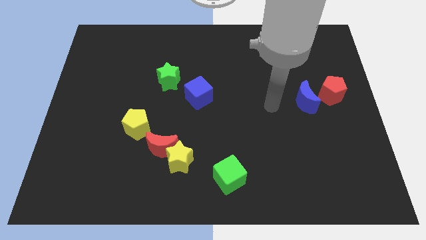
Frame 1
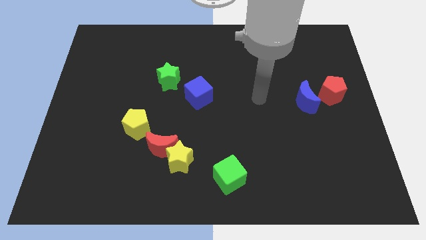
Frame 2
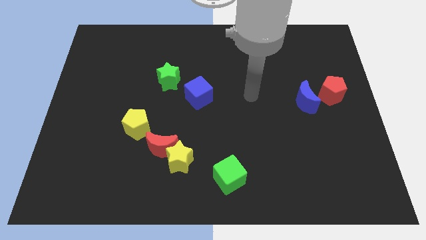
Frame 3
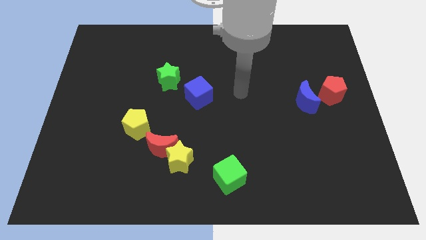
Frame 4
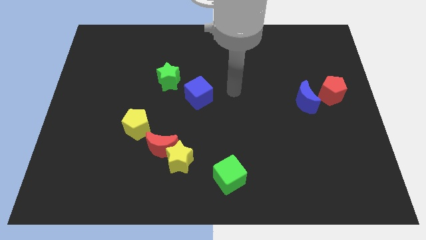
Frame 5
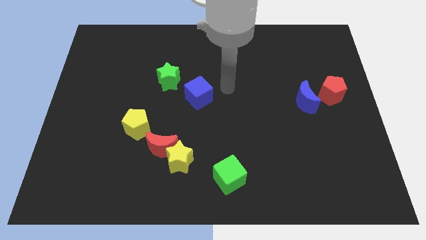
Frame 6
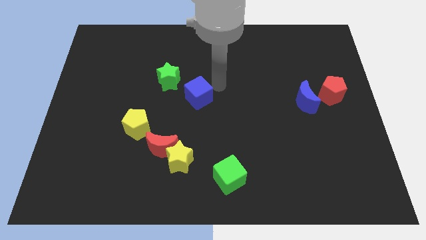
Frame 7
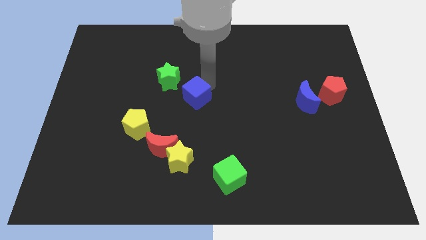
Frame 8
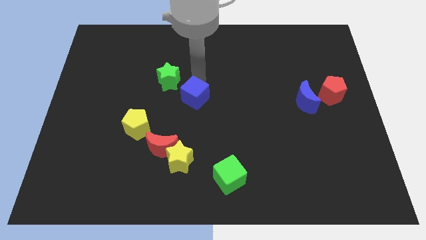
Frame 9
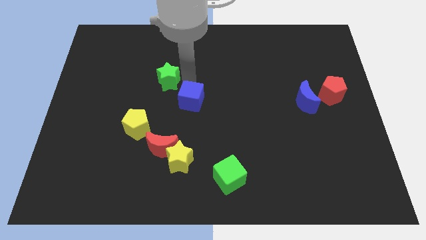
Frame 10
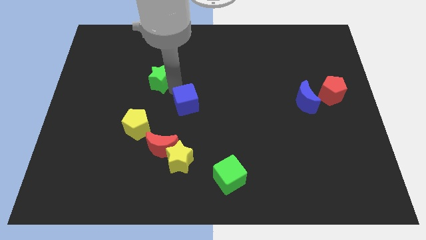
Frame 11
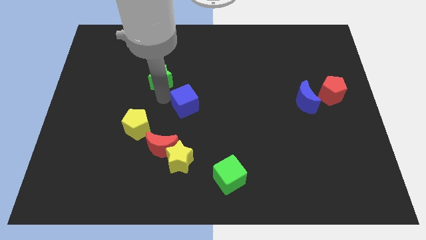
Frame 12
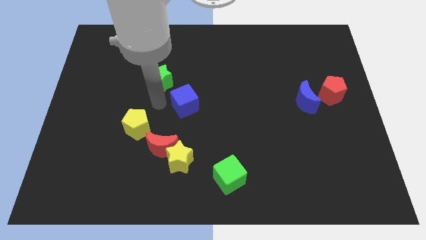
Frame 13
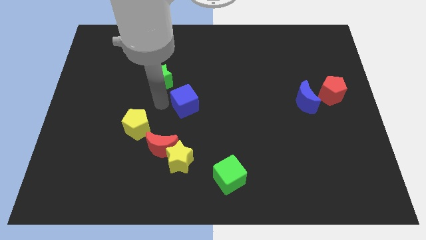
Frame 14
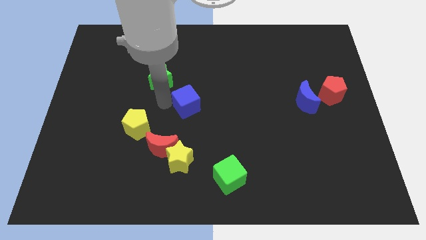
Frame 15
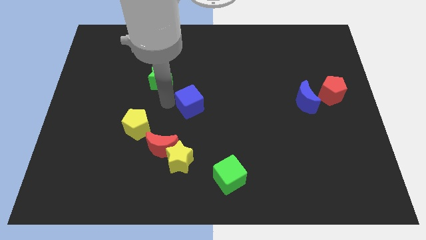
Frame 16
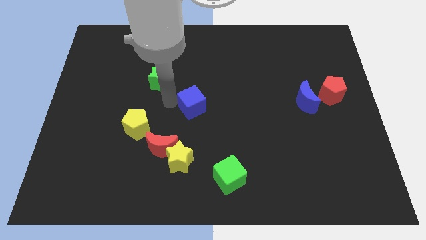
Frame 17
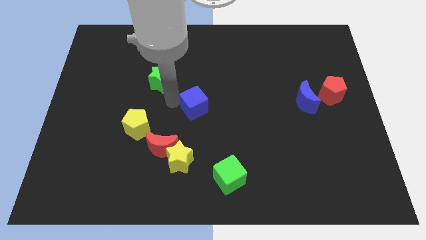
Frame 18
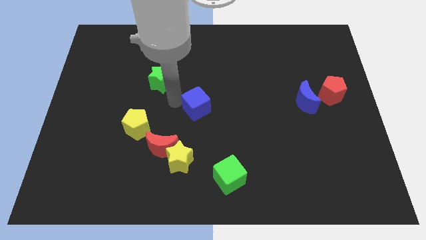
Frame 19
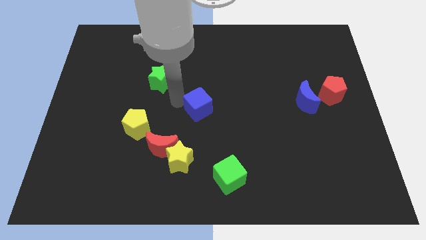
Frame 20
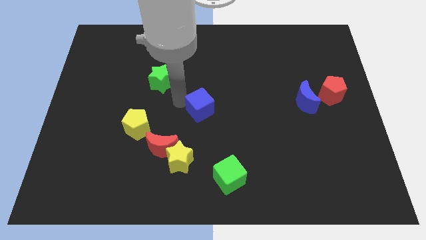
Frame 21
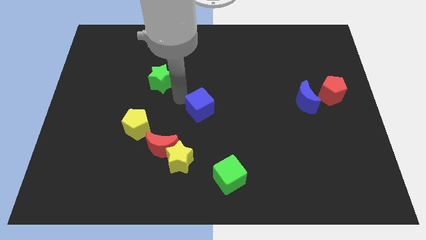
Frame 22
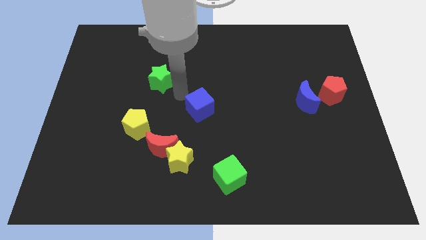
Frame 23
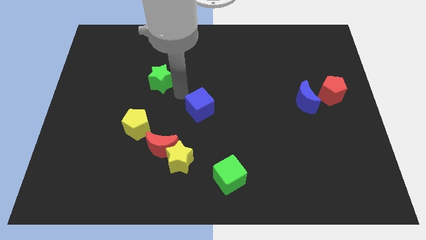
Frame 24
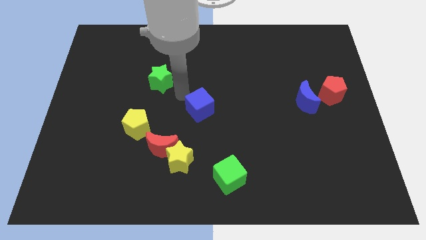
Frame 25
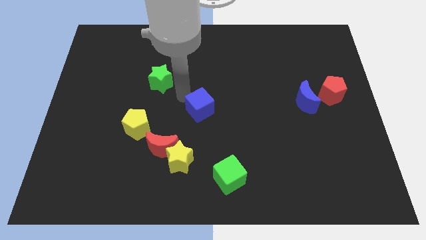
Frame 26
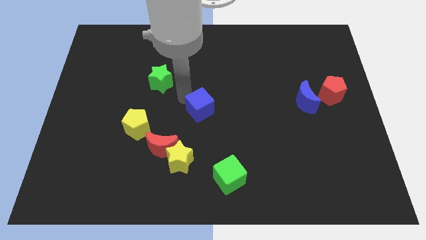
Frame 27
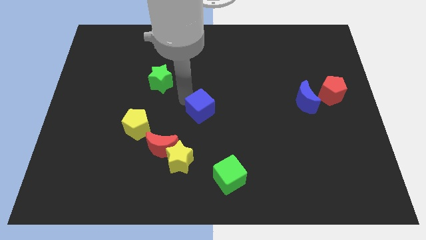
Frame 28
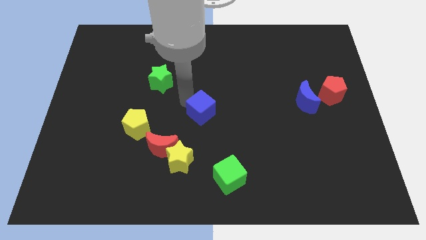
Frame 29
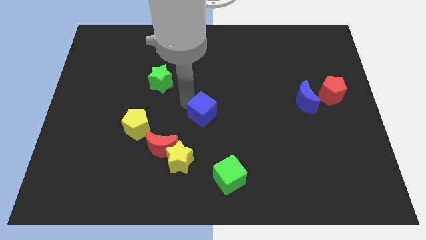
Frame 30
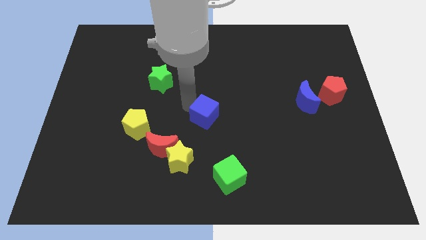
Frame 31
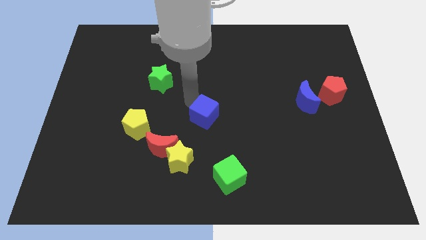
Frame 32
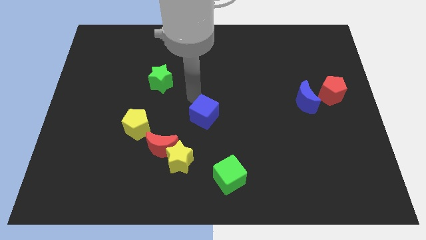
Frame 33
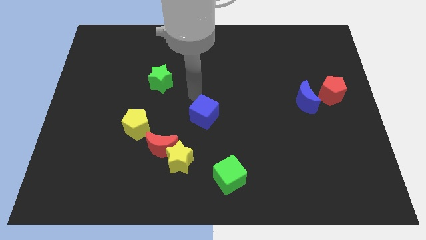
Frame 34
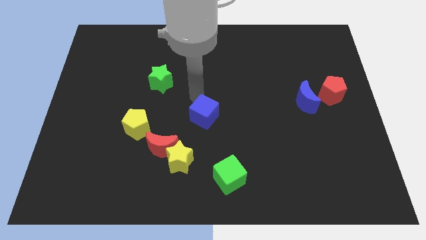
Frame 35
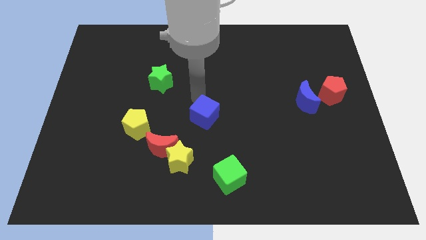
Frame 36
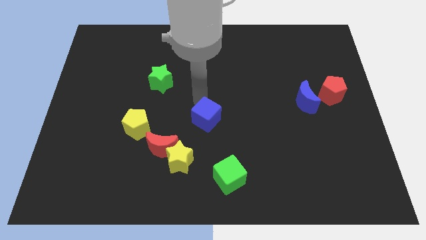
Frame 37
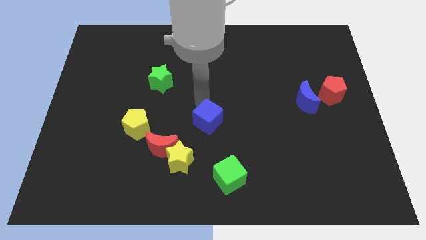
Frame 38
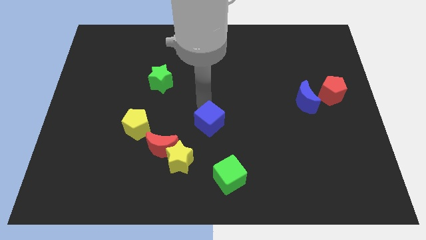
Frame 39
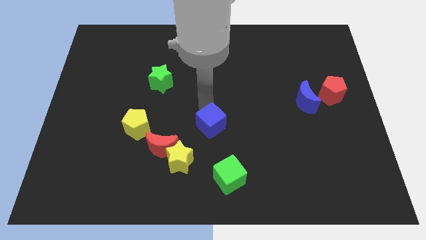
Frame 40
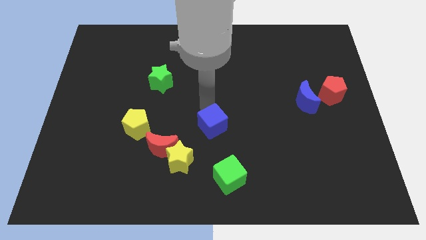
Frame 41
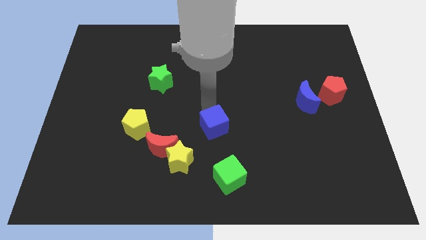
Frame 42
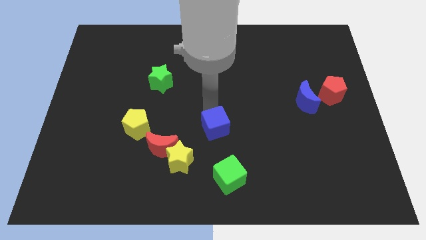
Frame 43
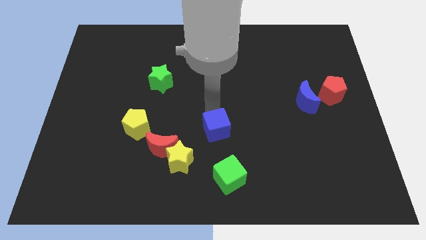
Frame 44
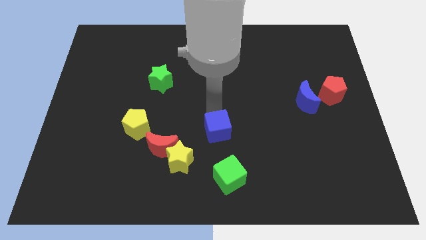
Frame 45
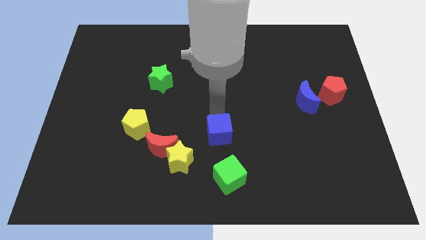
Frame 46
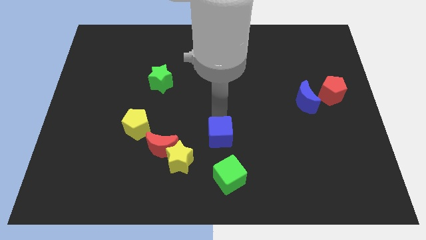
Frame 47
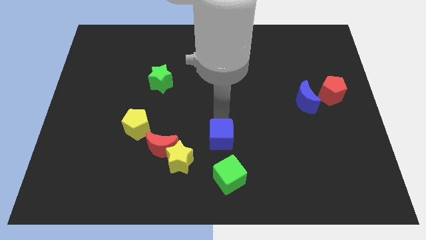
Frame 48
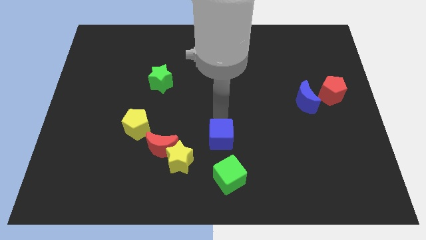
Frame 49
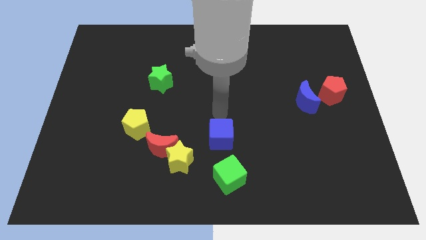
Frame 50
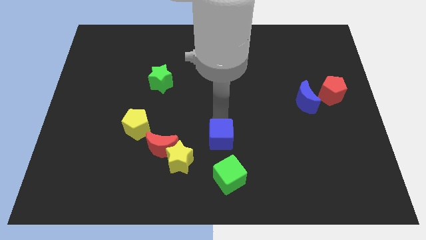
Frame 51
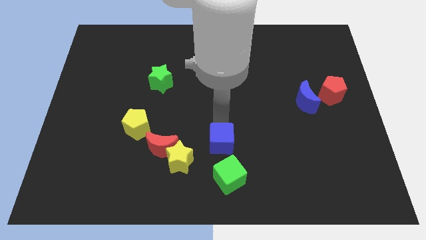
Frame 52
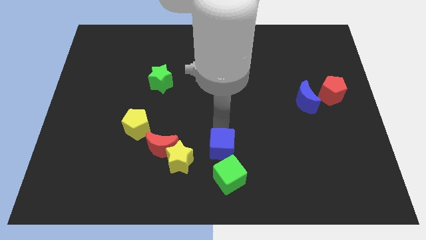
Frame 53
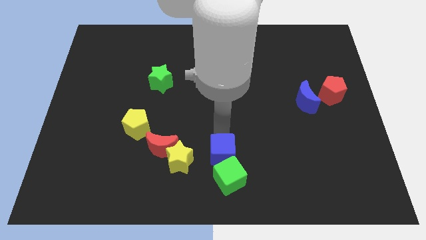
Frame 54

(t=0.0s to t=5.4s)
push the blue cube towards the green cube
